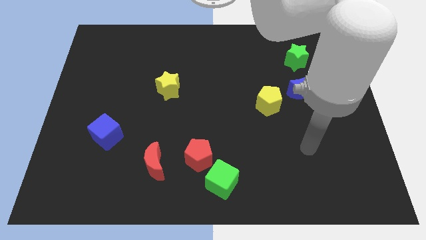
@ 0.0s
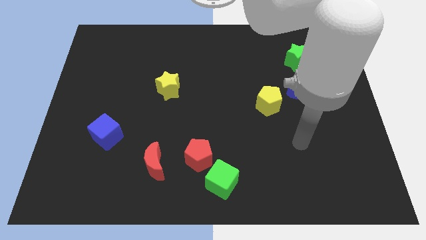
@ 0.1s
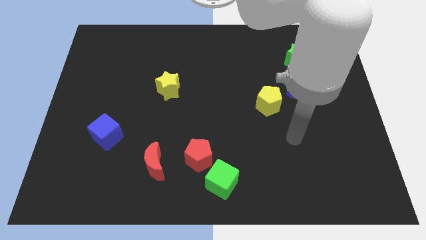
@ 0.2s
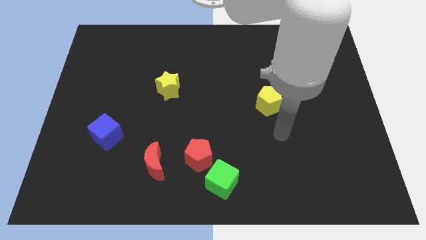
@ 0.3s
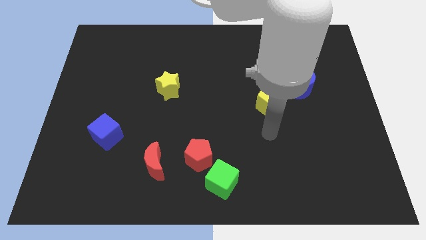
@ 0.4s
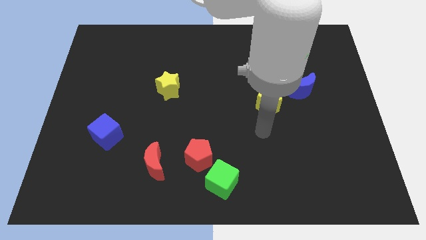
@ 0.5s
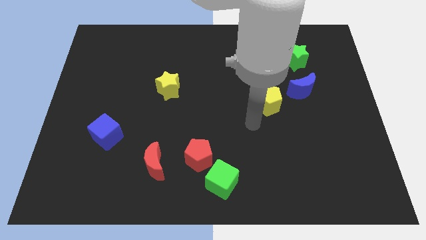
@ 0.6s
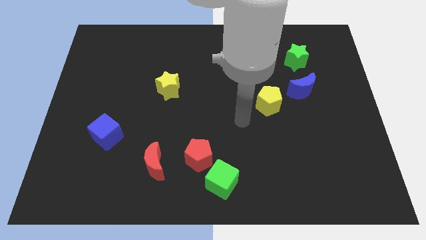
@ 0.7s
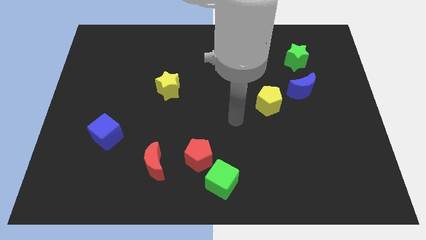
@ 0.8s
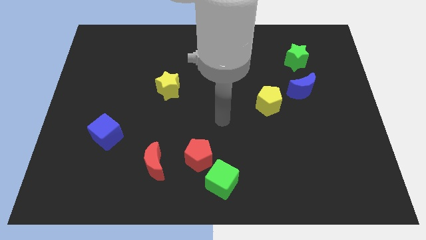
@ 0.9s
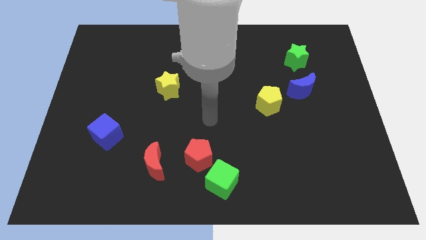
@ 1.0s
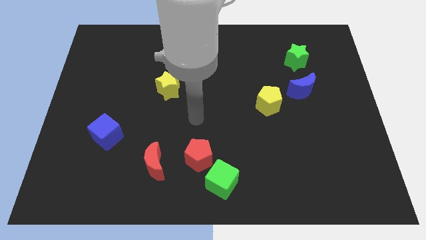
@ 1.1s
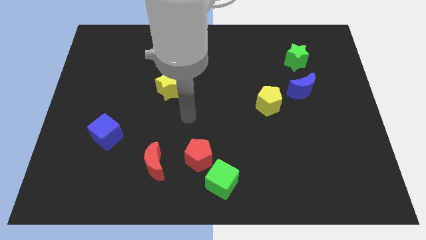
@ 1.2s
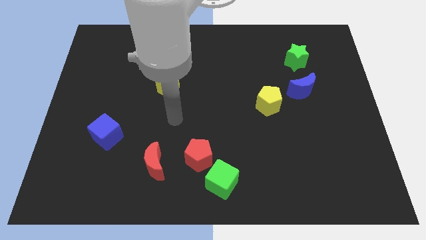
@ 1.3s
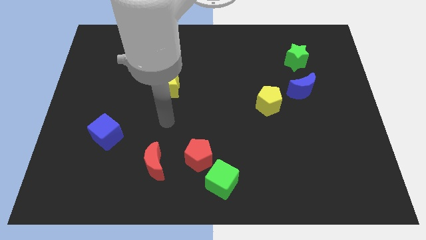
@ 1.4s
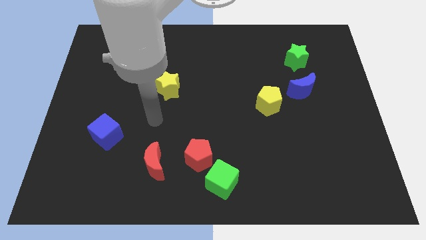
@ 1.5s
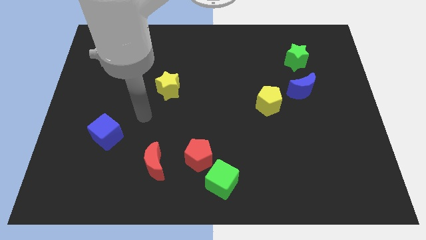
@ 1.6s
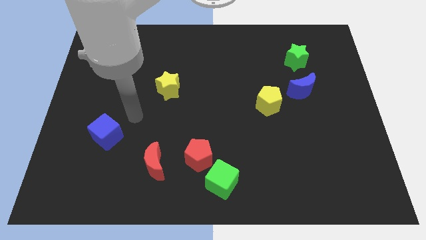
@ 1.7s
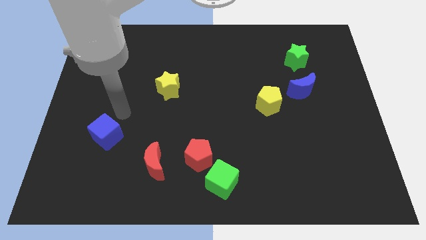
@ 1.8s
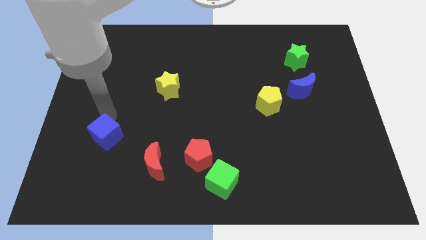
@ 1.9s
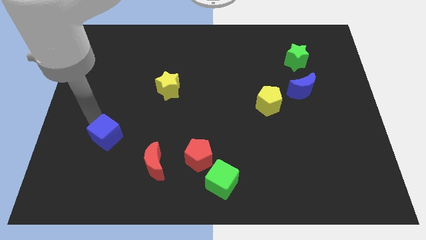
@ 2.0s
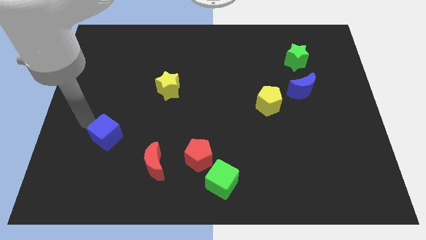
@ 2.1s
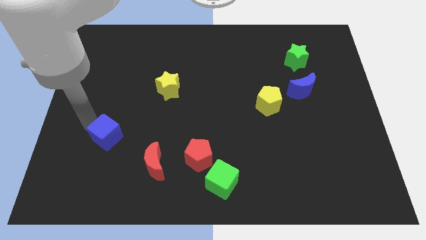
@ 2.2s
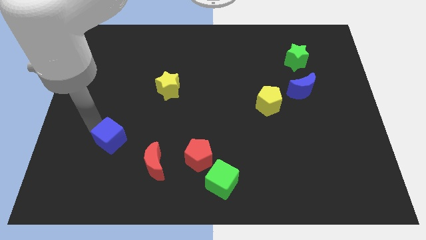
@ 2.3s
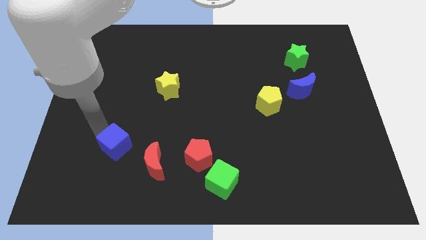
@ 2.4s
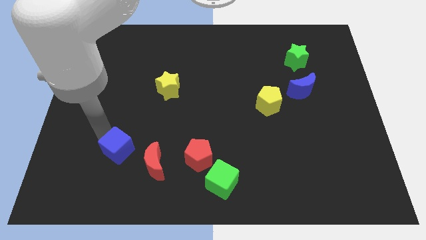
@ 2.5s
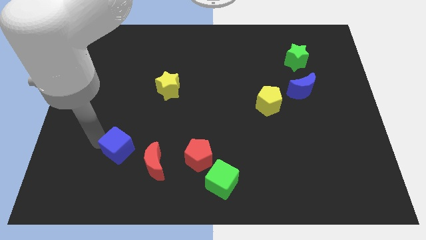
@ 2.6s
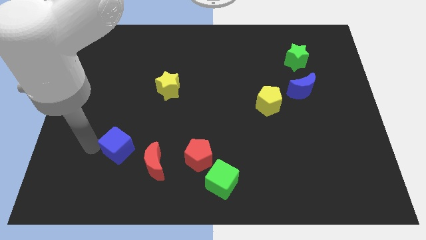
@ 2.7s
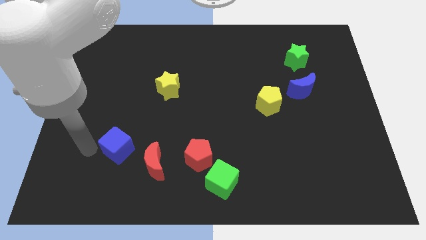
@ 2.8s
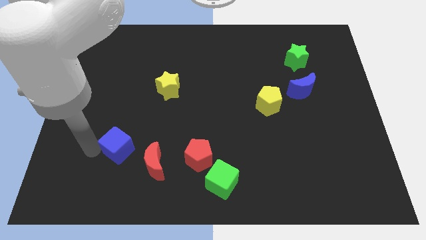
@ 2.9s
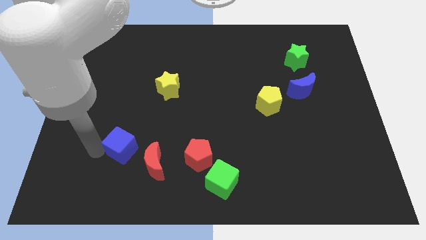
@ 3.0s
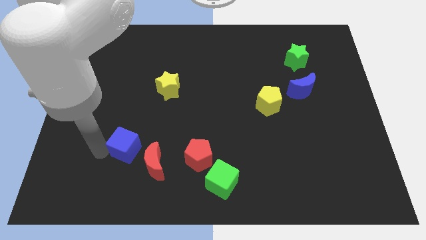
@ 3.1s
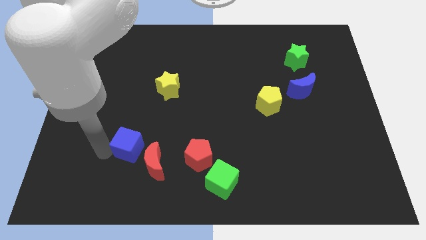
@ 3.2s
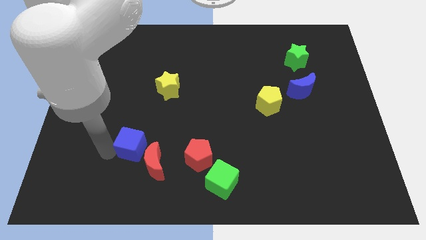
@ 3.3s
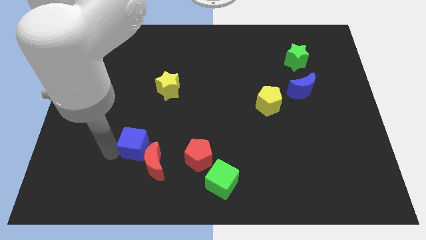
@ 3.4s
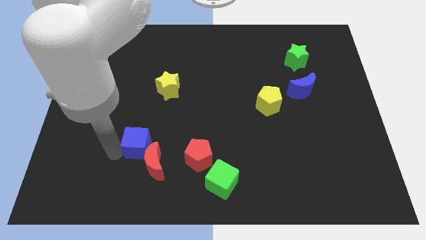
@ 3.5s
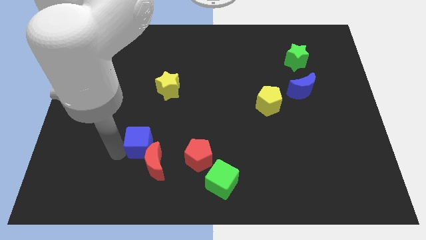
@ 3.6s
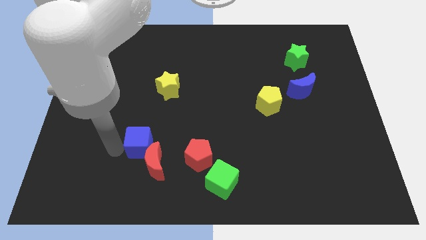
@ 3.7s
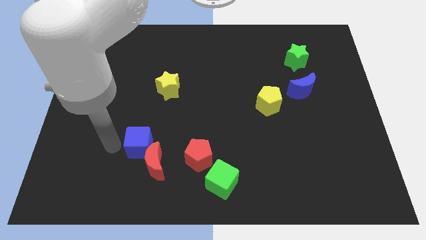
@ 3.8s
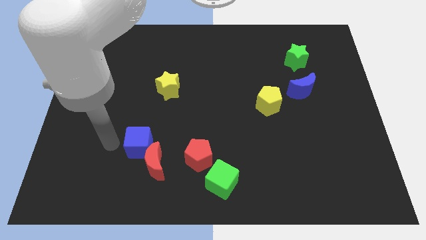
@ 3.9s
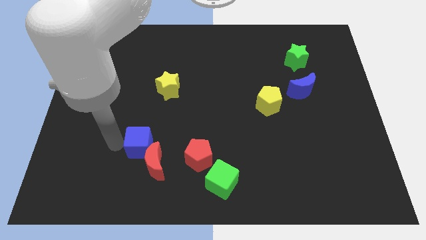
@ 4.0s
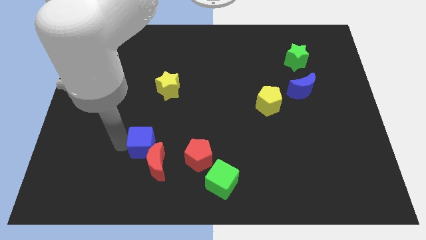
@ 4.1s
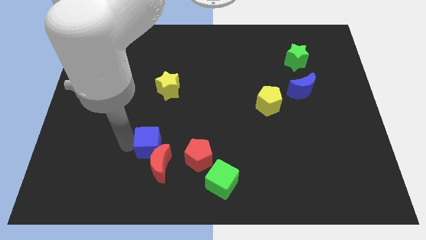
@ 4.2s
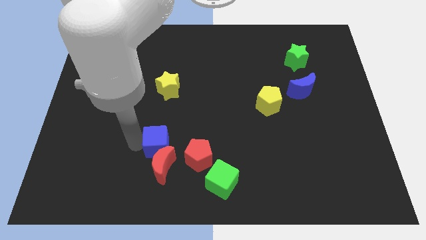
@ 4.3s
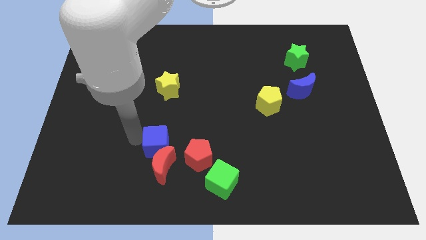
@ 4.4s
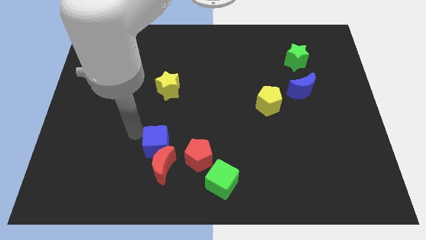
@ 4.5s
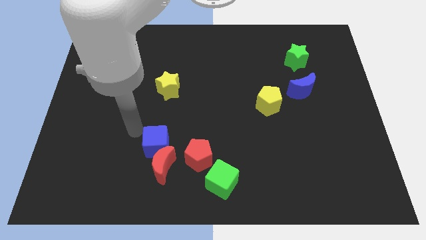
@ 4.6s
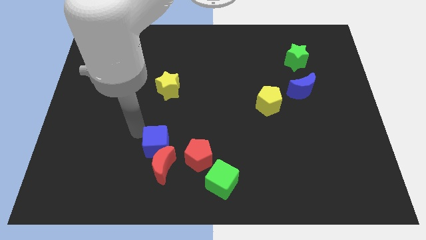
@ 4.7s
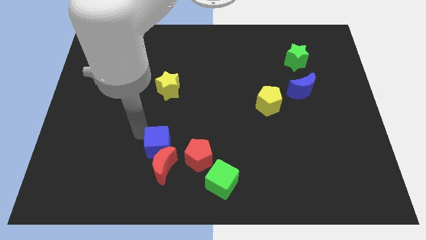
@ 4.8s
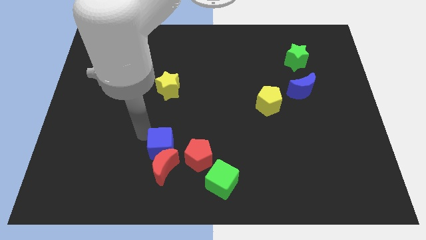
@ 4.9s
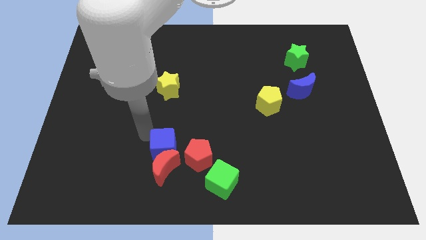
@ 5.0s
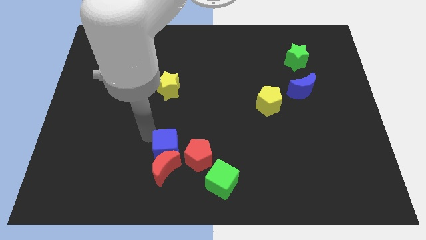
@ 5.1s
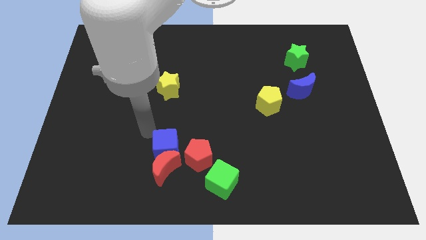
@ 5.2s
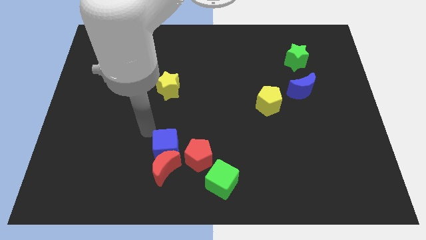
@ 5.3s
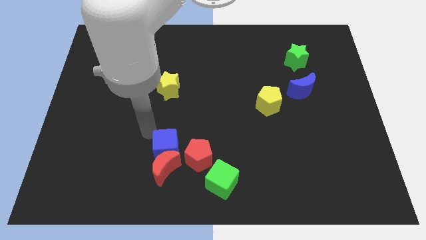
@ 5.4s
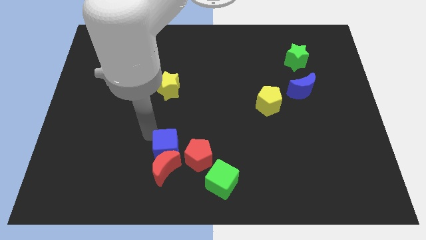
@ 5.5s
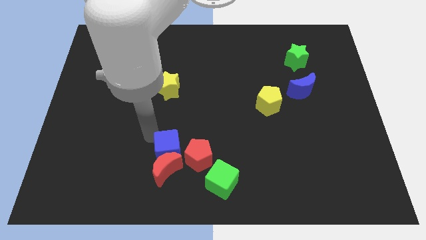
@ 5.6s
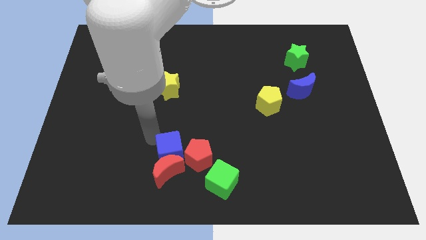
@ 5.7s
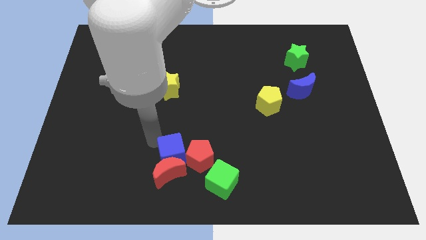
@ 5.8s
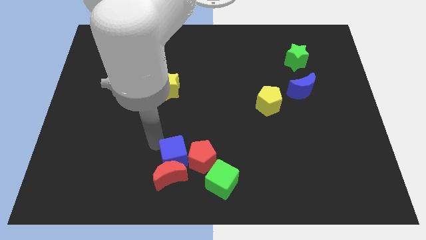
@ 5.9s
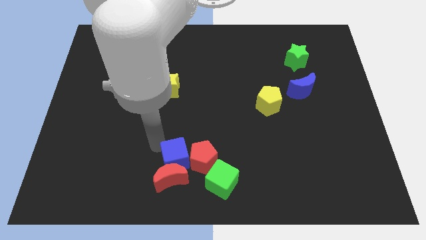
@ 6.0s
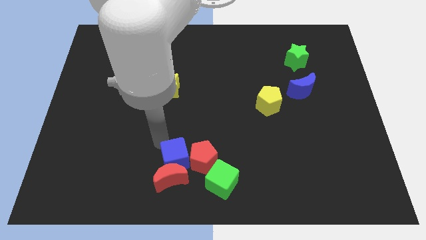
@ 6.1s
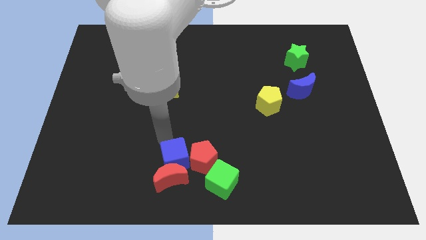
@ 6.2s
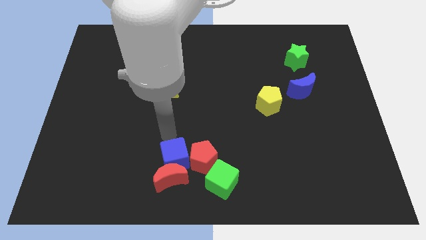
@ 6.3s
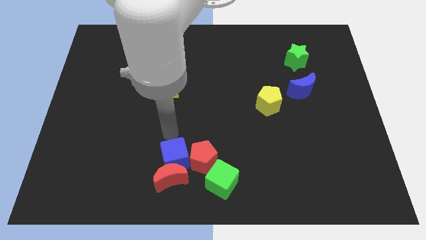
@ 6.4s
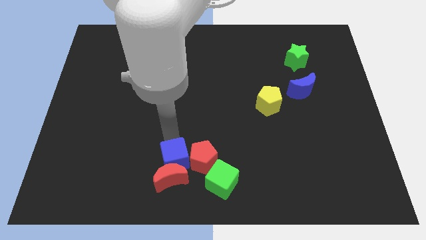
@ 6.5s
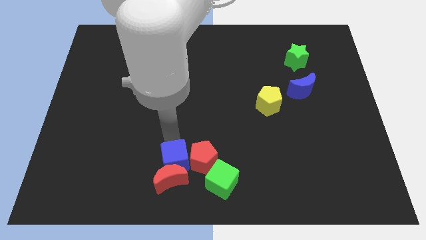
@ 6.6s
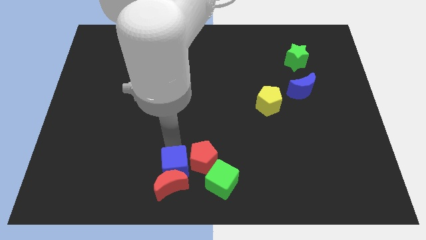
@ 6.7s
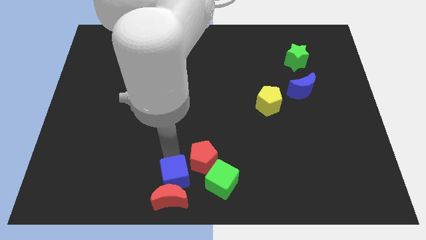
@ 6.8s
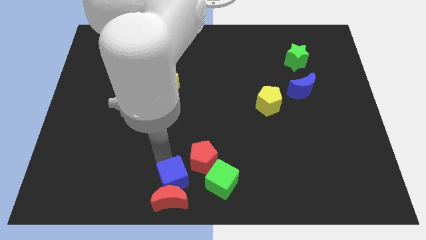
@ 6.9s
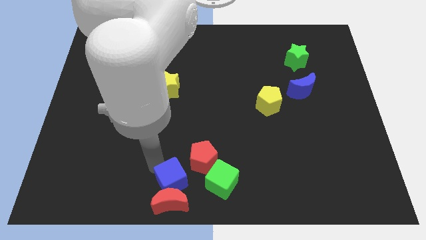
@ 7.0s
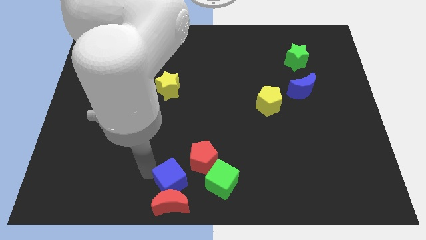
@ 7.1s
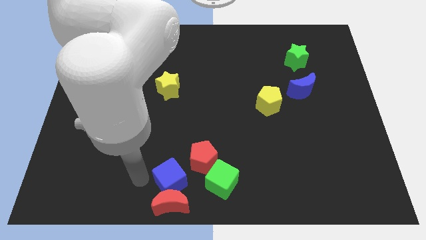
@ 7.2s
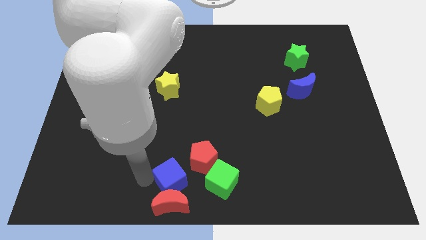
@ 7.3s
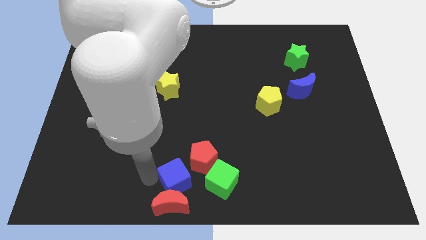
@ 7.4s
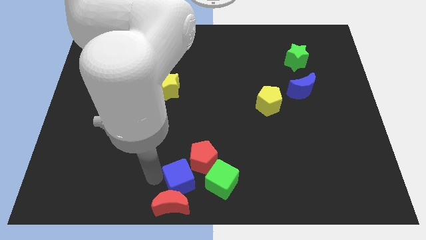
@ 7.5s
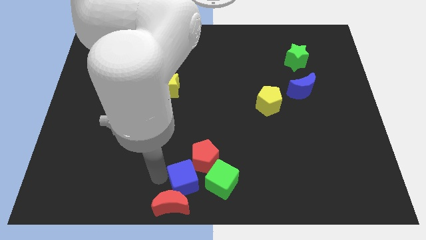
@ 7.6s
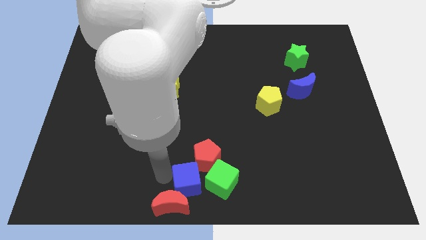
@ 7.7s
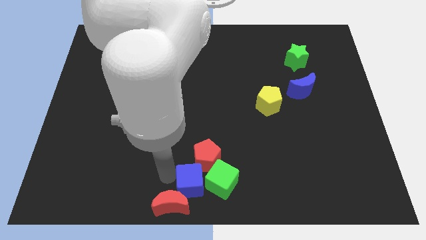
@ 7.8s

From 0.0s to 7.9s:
move the blue cube to the green cube
